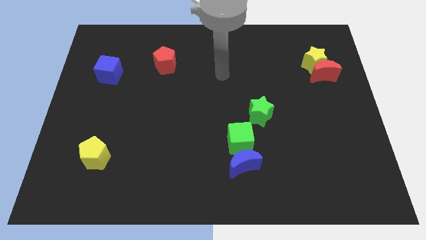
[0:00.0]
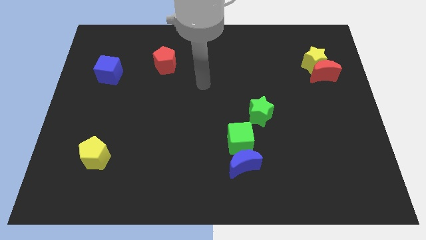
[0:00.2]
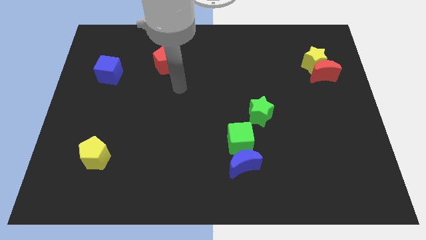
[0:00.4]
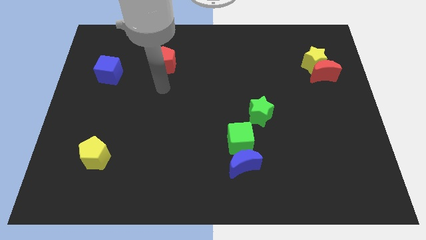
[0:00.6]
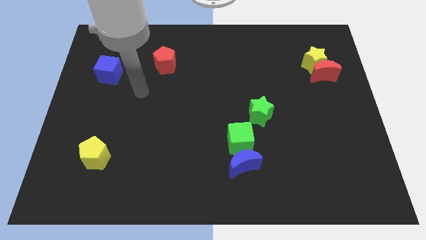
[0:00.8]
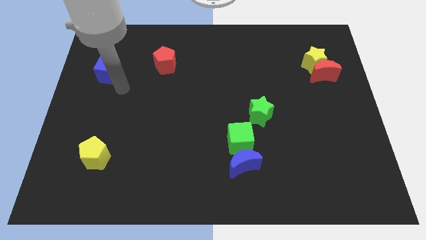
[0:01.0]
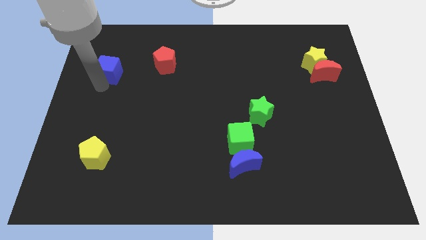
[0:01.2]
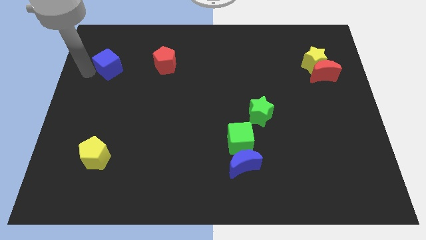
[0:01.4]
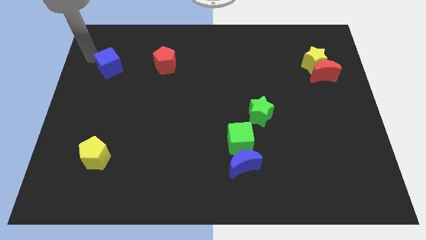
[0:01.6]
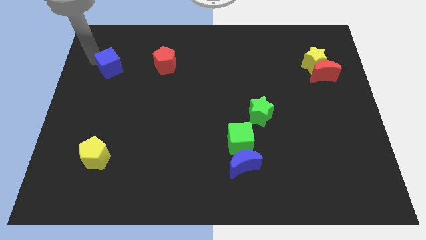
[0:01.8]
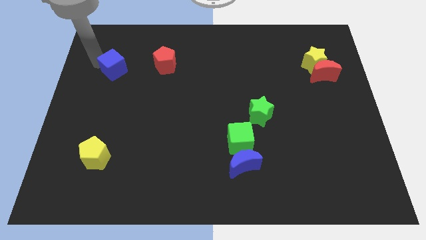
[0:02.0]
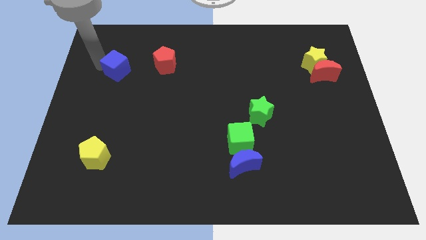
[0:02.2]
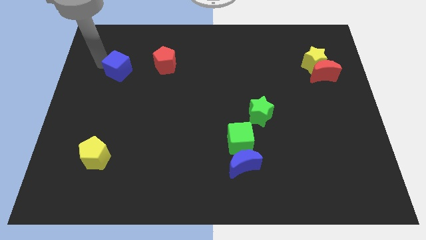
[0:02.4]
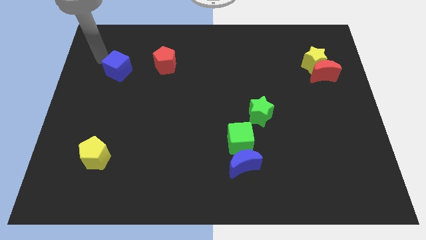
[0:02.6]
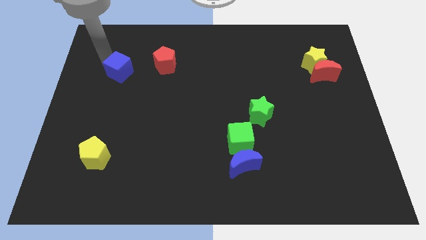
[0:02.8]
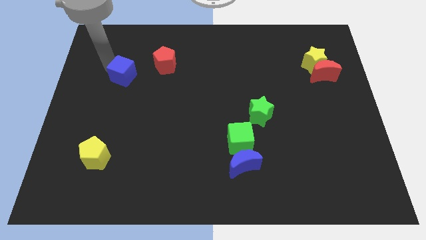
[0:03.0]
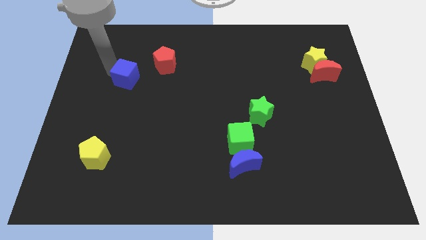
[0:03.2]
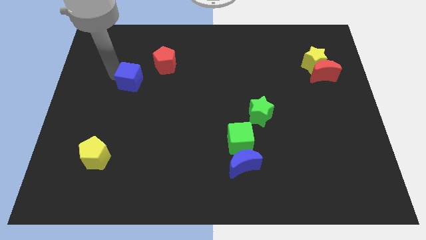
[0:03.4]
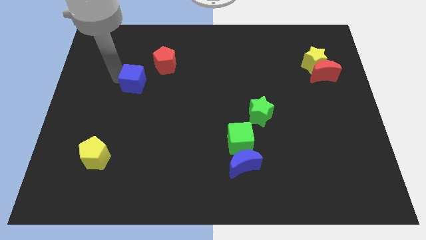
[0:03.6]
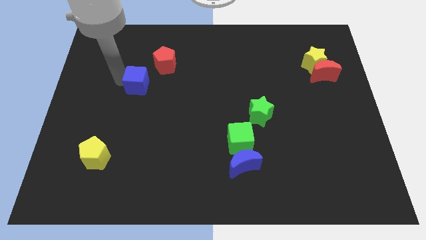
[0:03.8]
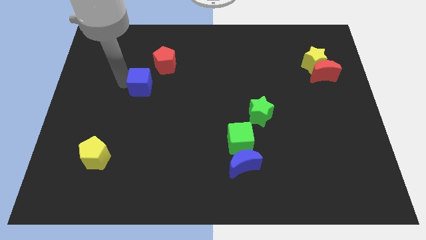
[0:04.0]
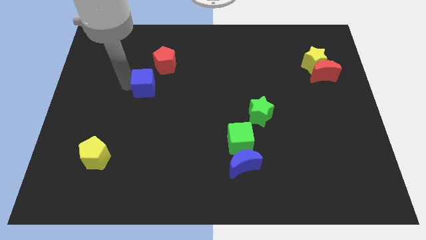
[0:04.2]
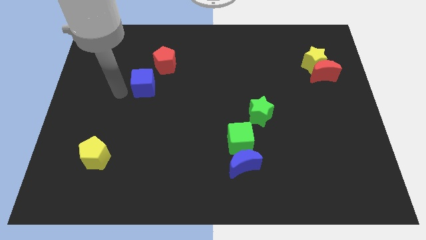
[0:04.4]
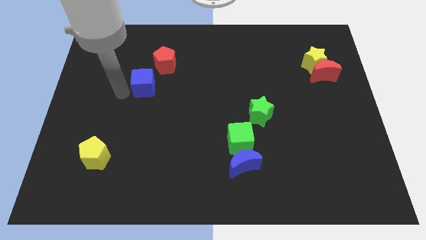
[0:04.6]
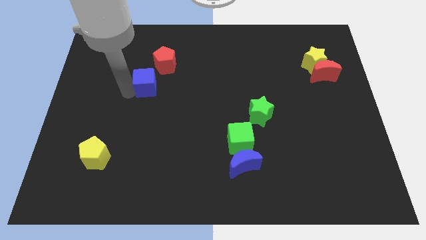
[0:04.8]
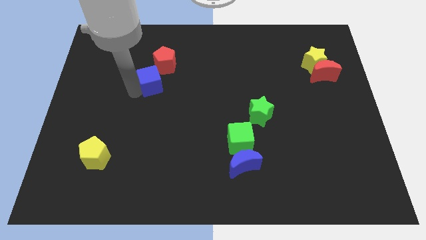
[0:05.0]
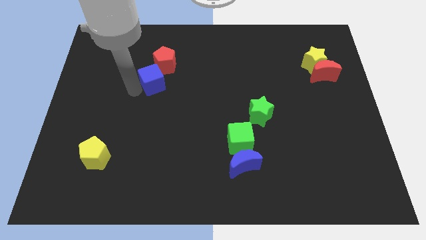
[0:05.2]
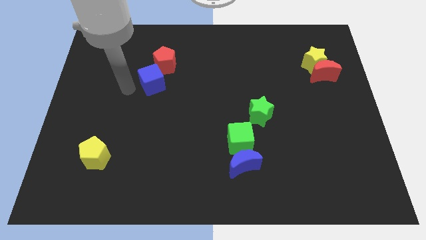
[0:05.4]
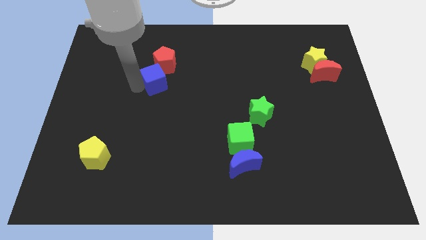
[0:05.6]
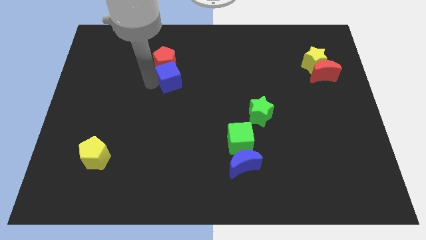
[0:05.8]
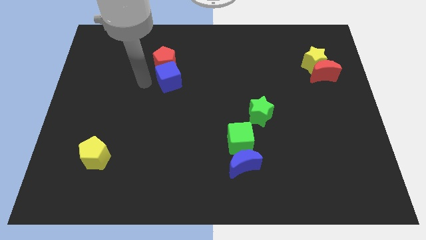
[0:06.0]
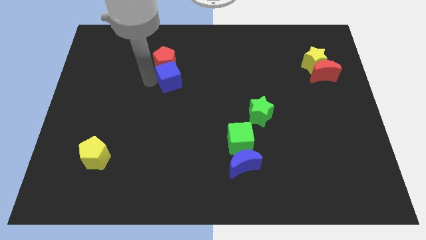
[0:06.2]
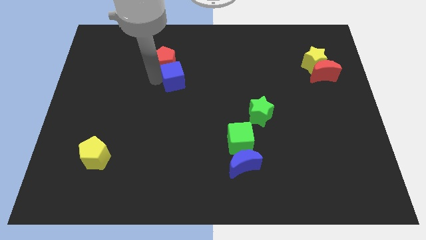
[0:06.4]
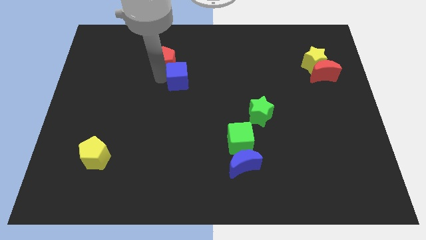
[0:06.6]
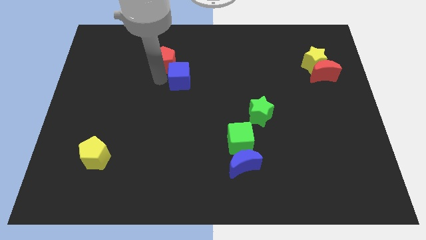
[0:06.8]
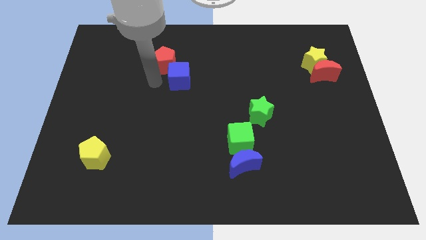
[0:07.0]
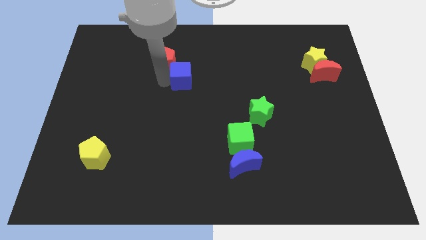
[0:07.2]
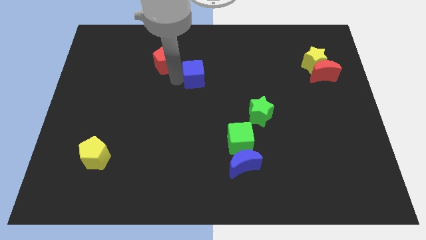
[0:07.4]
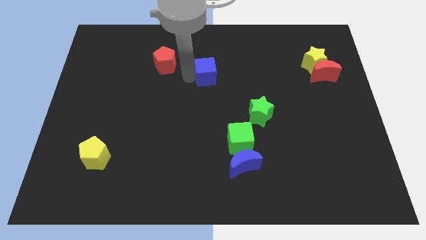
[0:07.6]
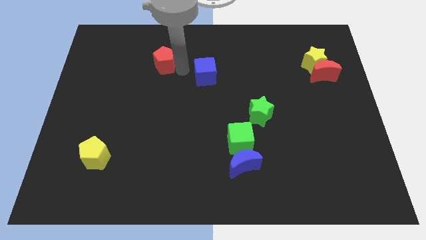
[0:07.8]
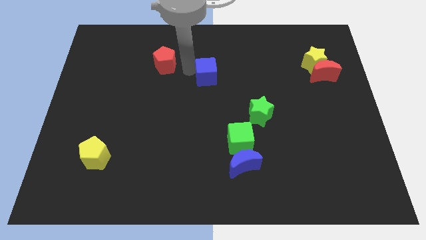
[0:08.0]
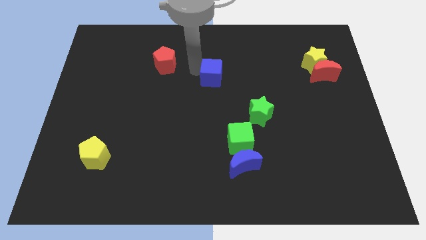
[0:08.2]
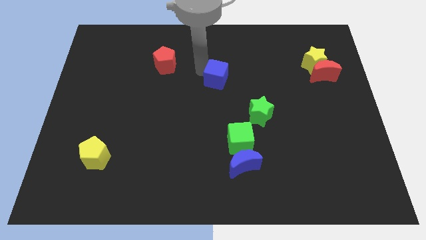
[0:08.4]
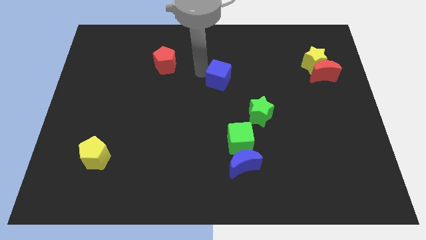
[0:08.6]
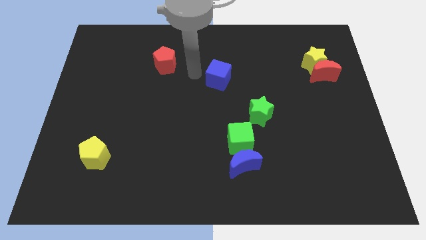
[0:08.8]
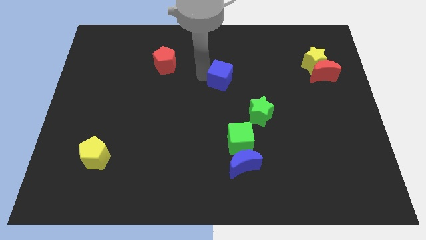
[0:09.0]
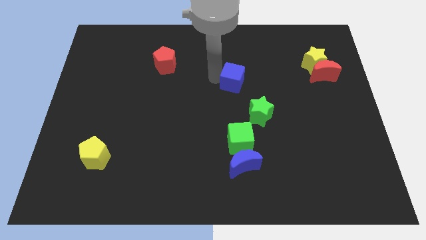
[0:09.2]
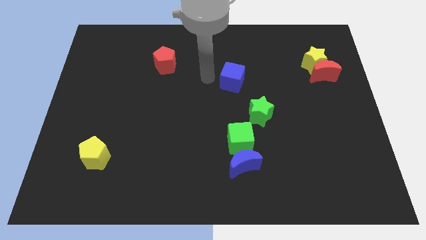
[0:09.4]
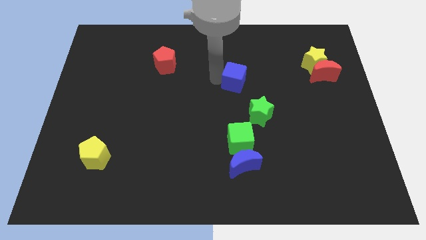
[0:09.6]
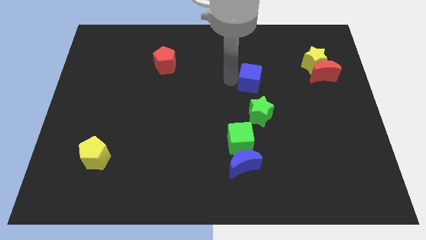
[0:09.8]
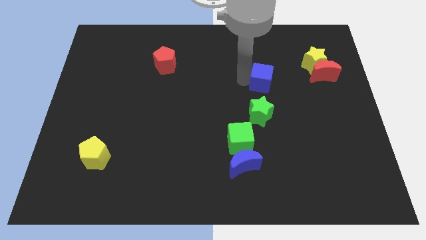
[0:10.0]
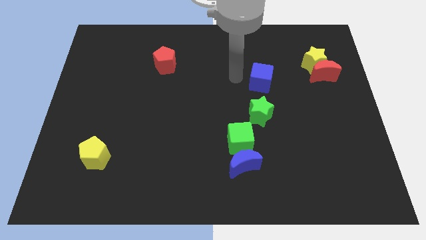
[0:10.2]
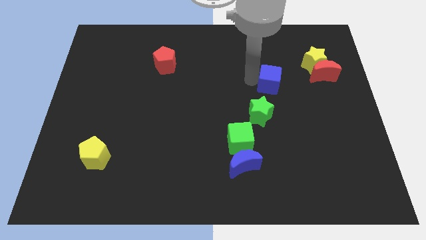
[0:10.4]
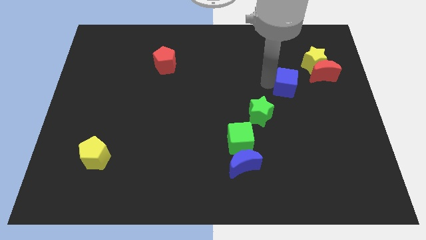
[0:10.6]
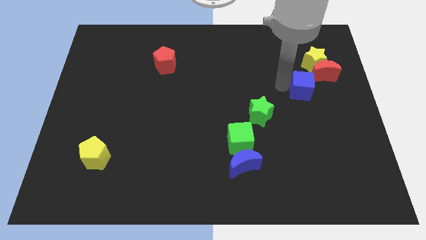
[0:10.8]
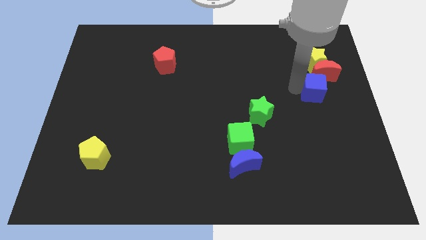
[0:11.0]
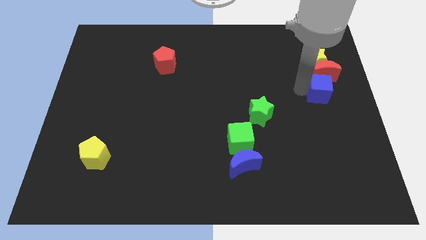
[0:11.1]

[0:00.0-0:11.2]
put the blue cube to the center right

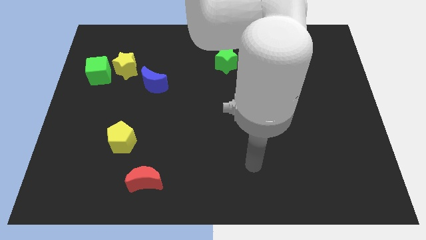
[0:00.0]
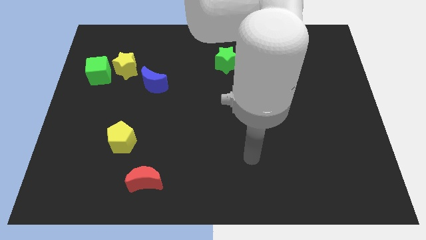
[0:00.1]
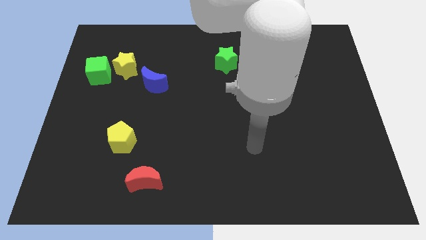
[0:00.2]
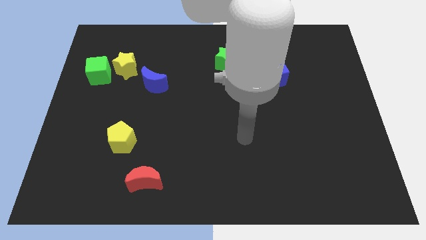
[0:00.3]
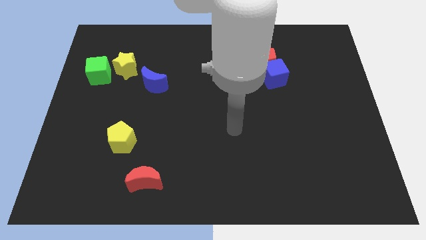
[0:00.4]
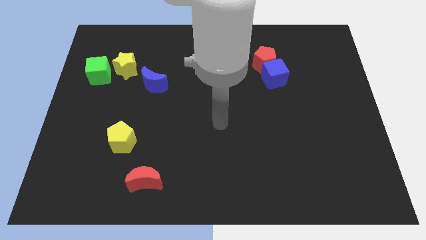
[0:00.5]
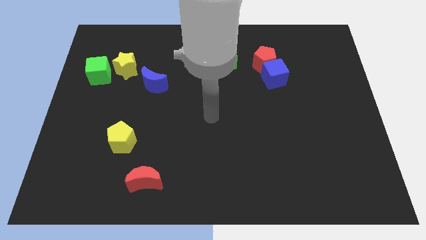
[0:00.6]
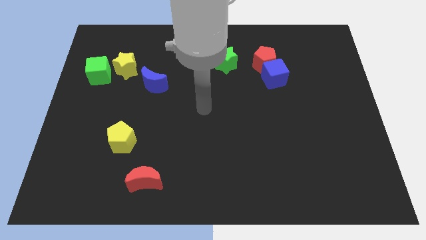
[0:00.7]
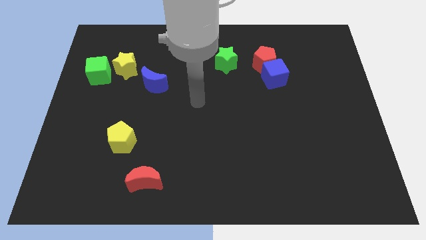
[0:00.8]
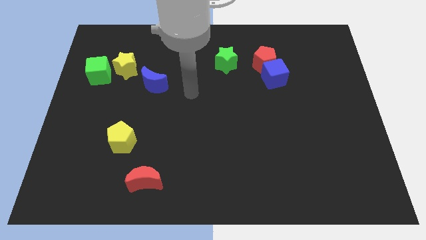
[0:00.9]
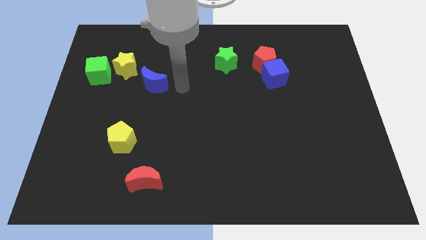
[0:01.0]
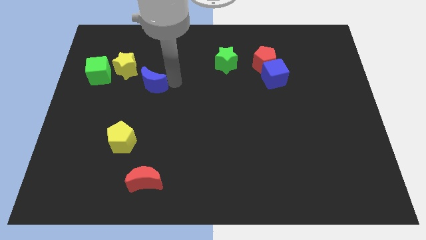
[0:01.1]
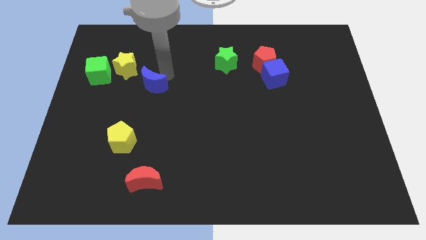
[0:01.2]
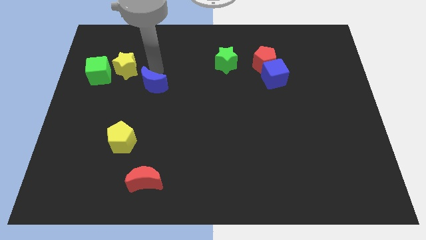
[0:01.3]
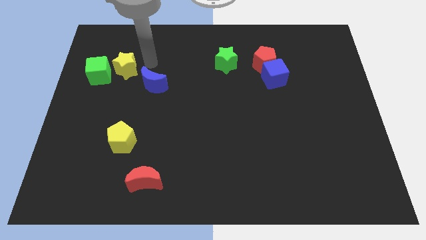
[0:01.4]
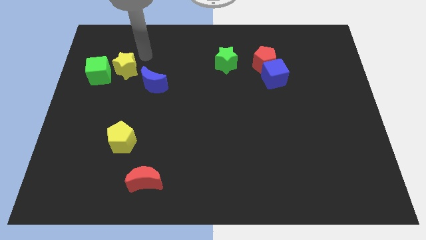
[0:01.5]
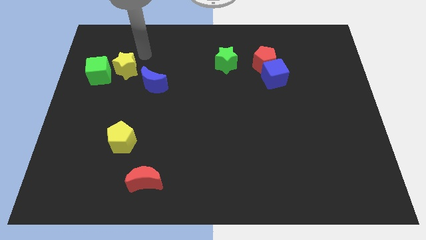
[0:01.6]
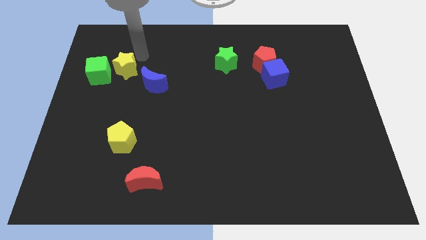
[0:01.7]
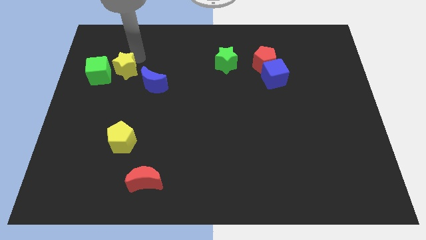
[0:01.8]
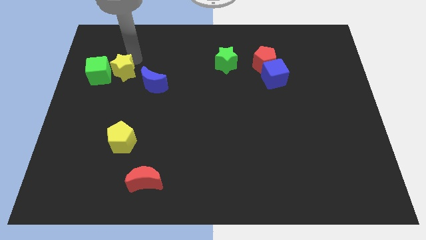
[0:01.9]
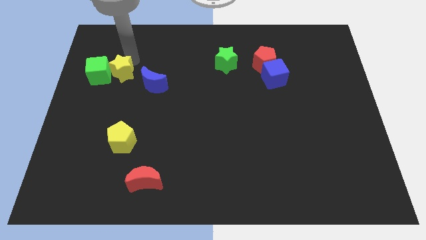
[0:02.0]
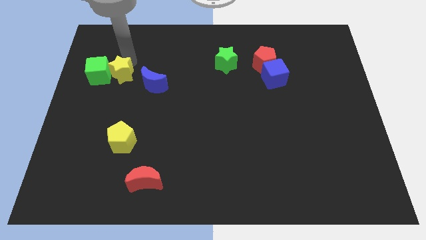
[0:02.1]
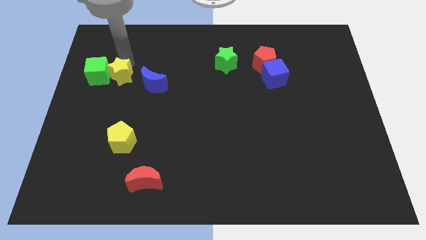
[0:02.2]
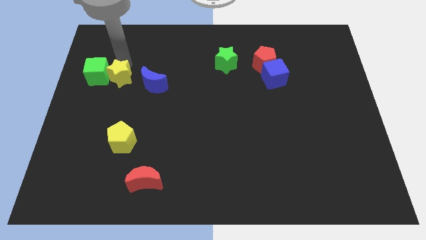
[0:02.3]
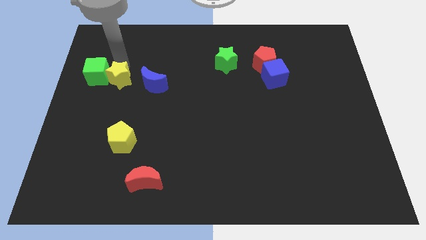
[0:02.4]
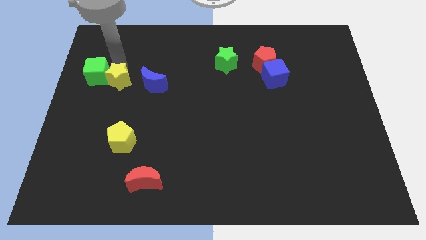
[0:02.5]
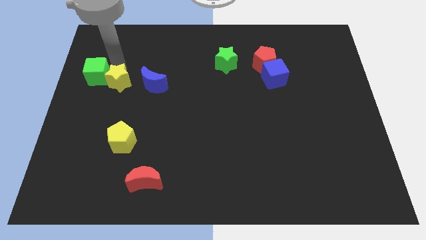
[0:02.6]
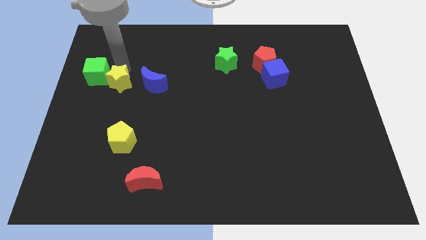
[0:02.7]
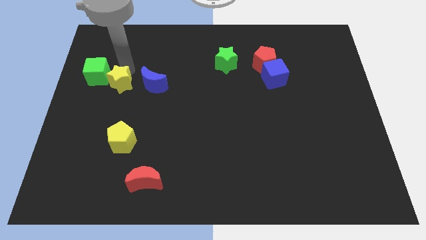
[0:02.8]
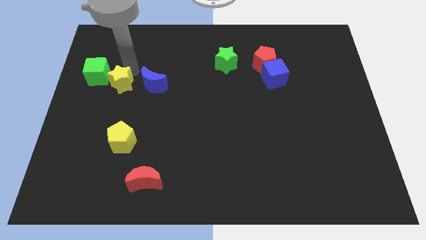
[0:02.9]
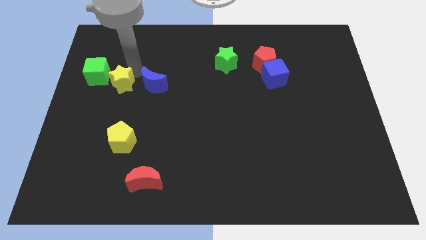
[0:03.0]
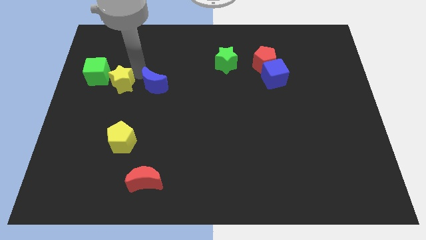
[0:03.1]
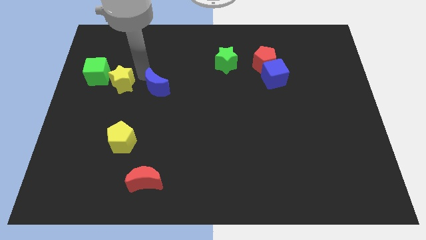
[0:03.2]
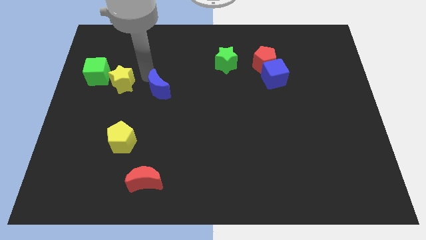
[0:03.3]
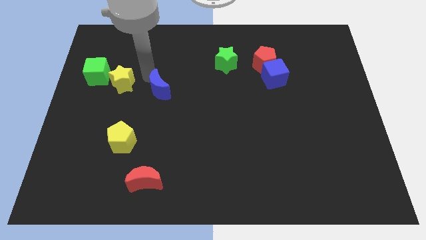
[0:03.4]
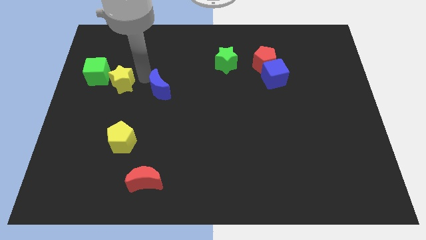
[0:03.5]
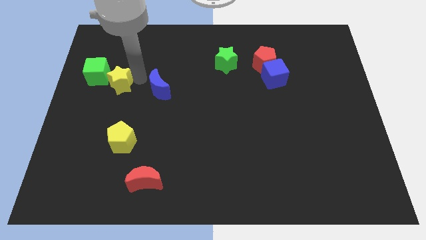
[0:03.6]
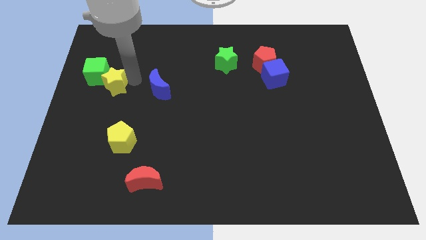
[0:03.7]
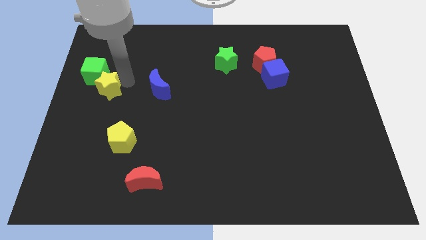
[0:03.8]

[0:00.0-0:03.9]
move the yellow star to the left side of the board
